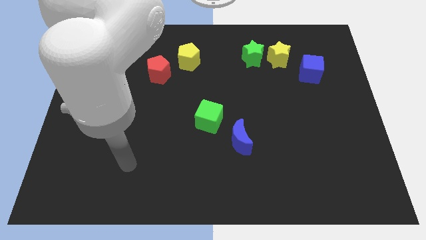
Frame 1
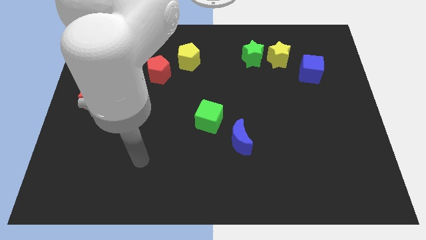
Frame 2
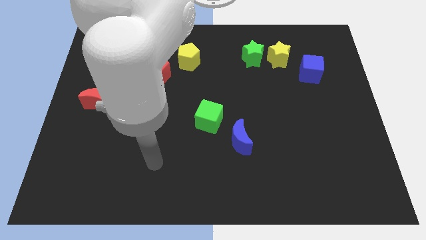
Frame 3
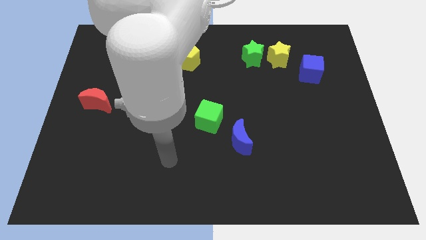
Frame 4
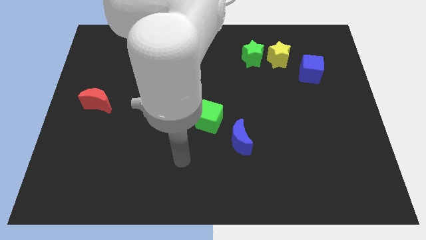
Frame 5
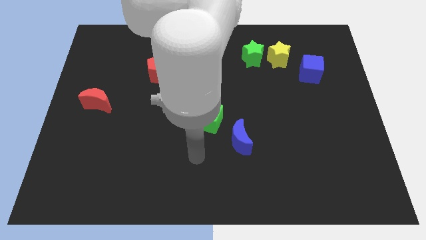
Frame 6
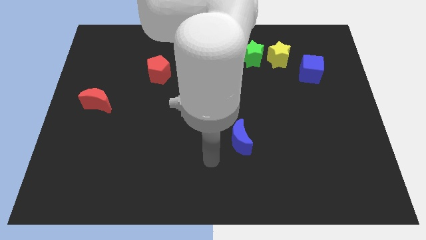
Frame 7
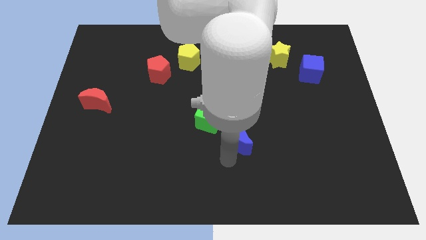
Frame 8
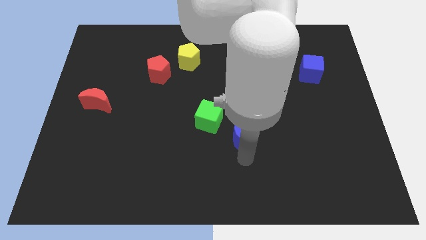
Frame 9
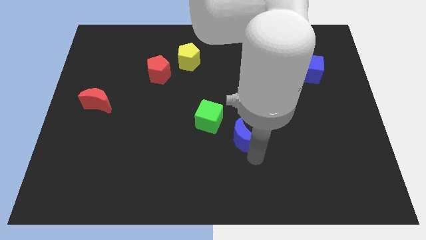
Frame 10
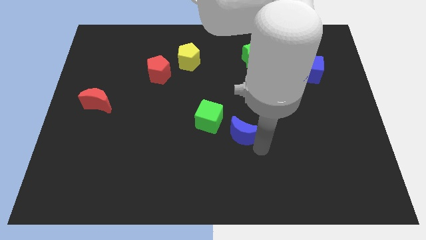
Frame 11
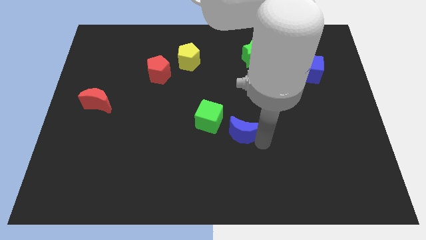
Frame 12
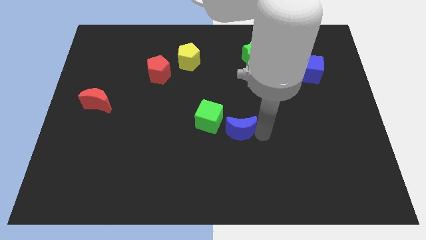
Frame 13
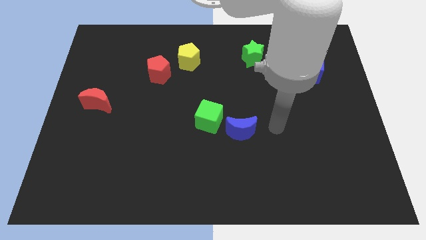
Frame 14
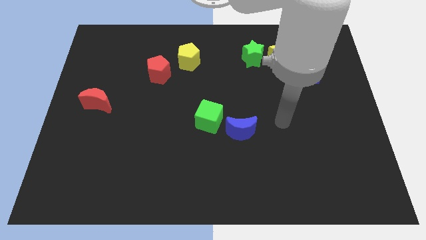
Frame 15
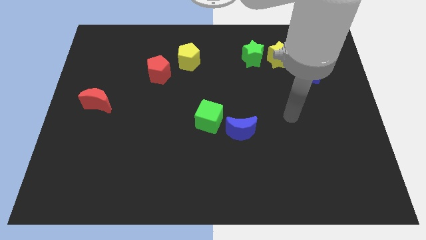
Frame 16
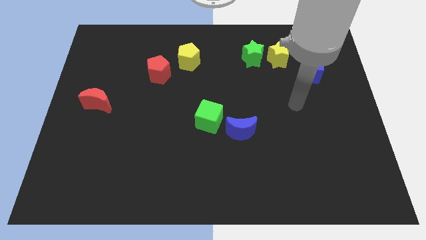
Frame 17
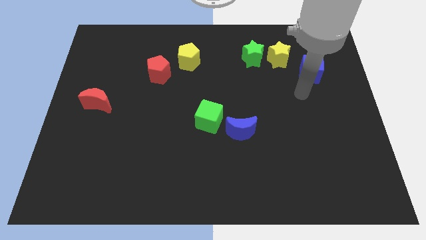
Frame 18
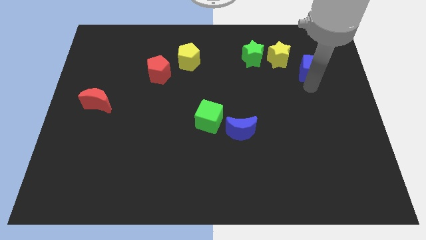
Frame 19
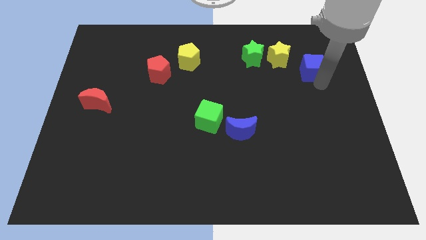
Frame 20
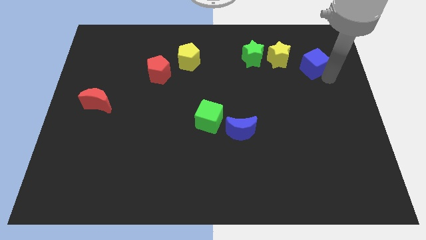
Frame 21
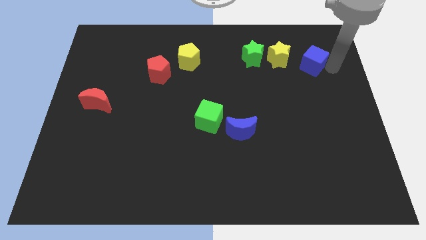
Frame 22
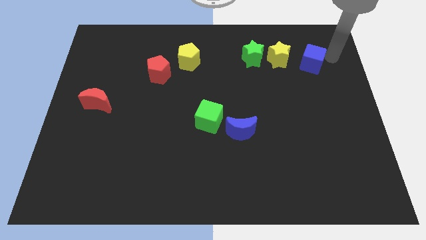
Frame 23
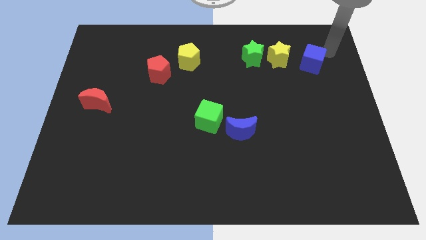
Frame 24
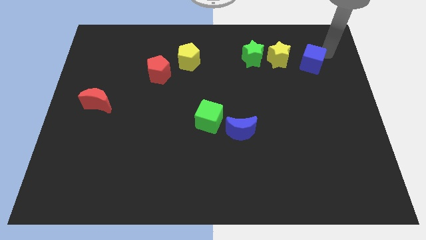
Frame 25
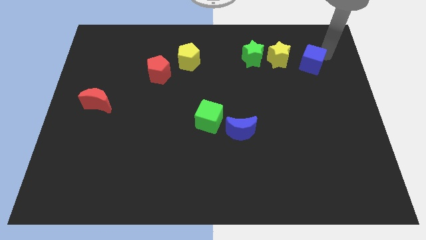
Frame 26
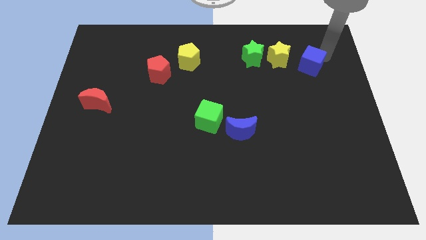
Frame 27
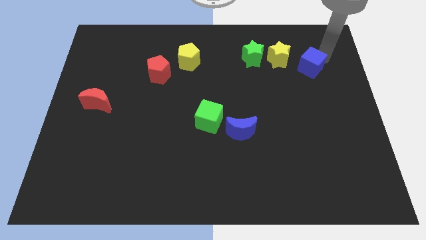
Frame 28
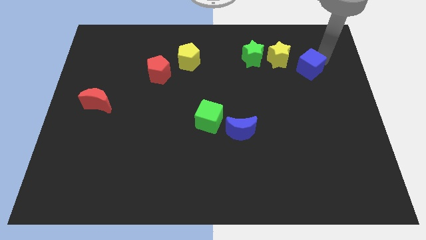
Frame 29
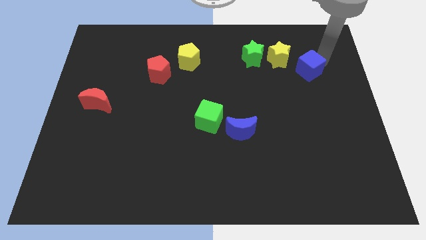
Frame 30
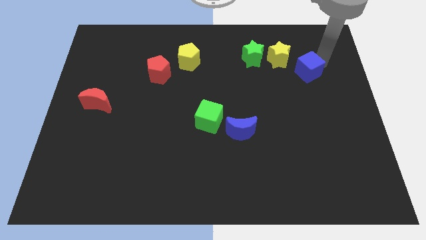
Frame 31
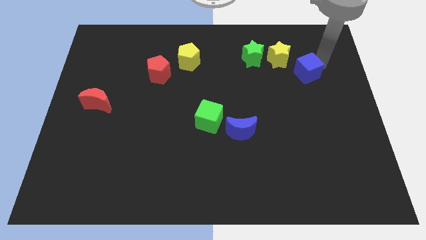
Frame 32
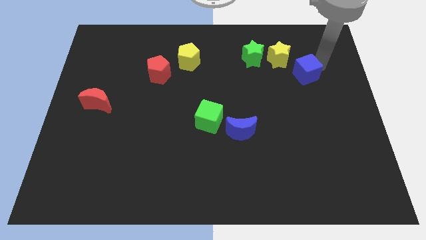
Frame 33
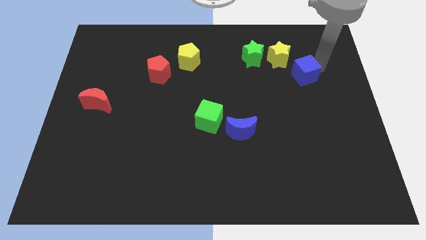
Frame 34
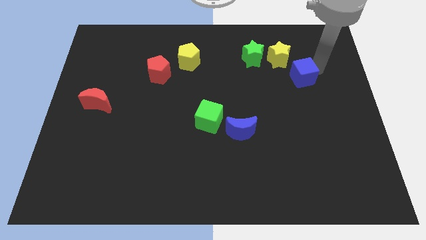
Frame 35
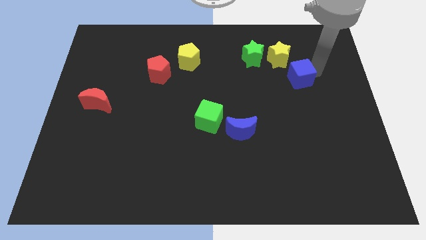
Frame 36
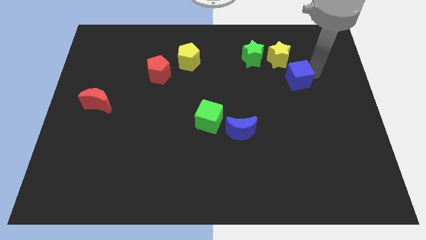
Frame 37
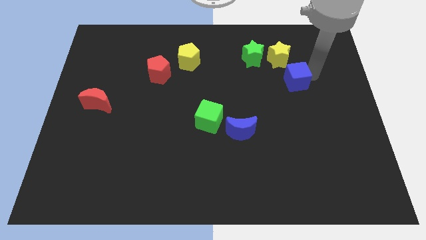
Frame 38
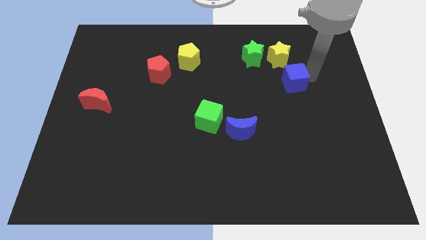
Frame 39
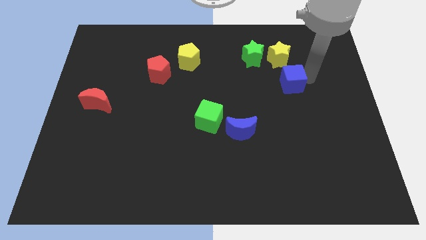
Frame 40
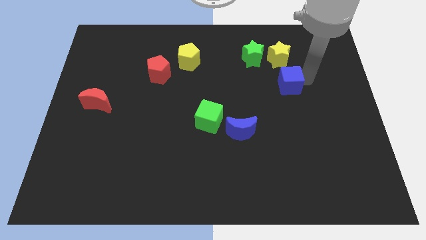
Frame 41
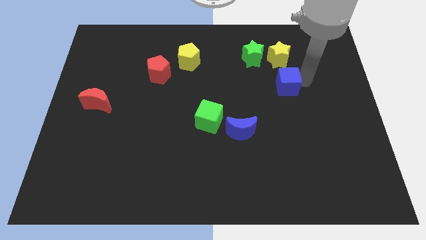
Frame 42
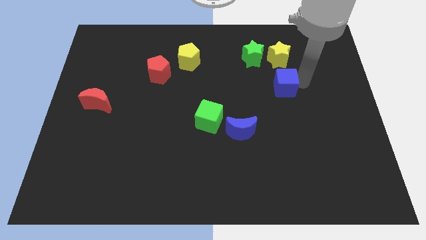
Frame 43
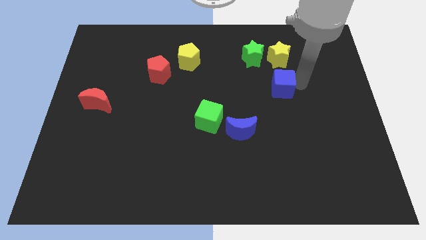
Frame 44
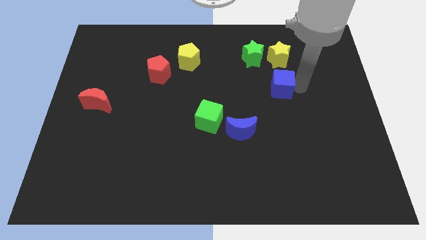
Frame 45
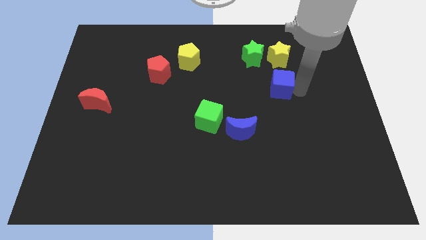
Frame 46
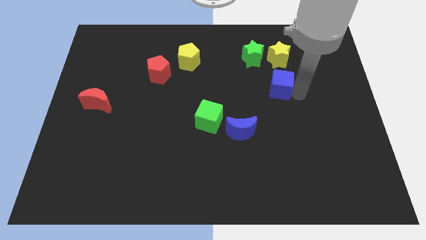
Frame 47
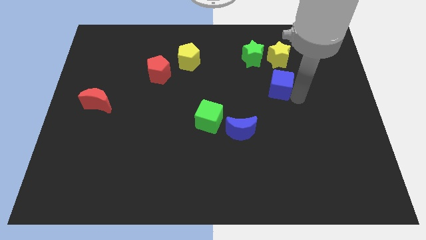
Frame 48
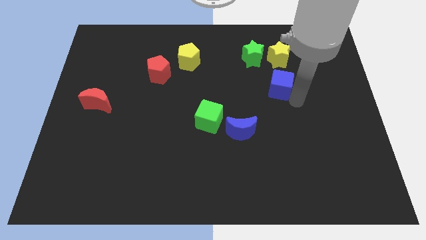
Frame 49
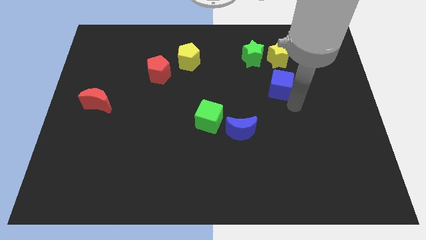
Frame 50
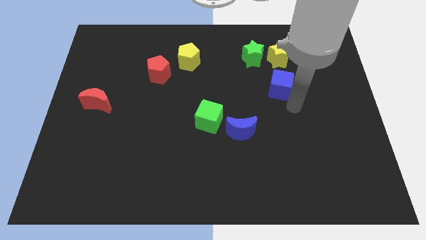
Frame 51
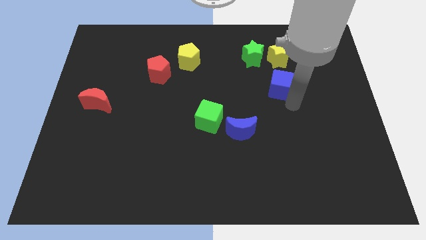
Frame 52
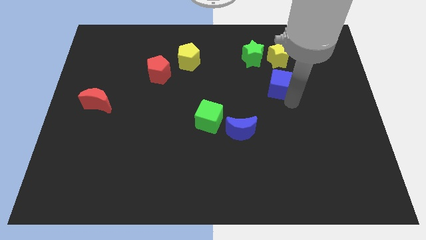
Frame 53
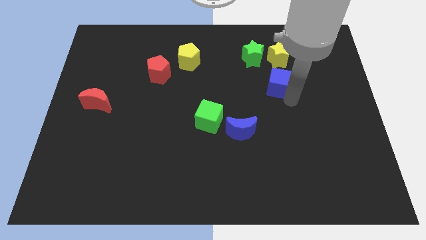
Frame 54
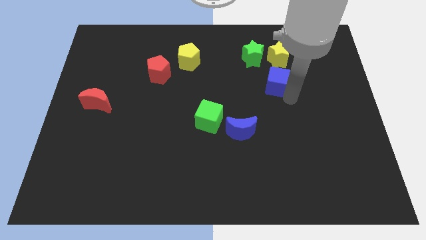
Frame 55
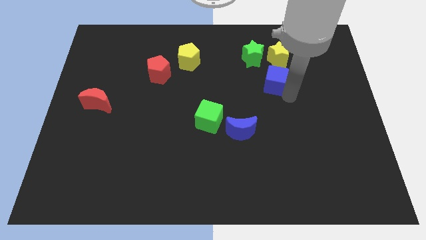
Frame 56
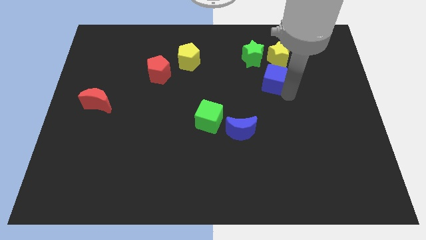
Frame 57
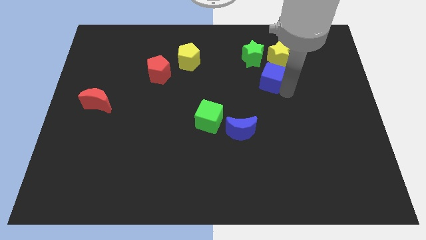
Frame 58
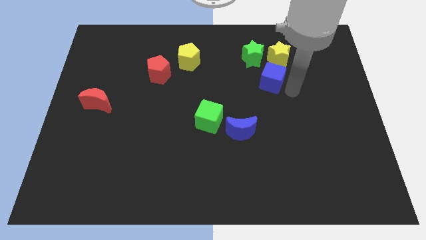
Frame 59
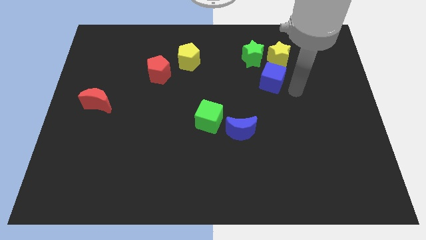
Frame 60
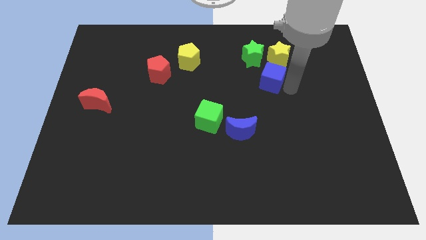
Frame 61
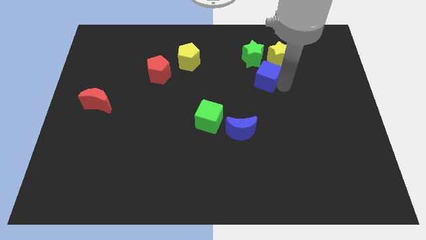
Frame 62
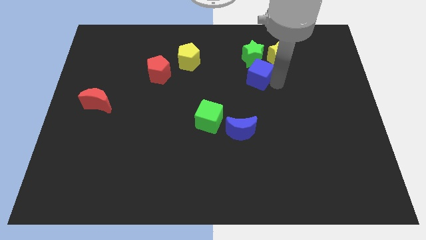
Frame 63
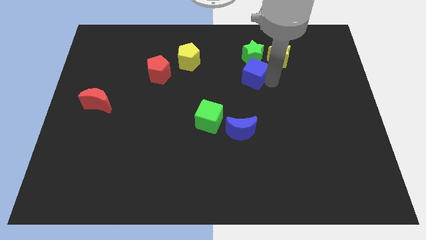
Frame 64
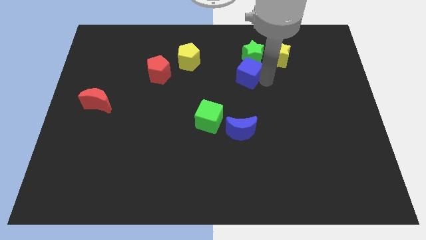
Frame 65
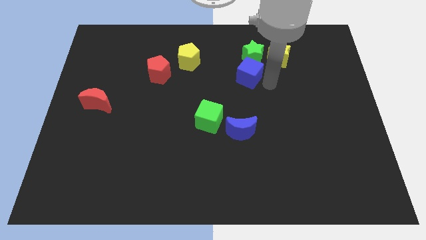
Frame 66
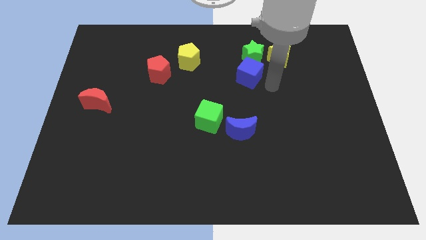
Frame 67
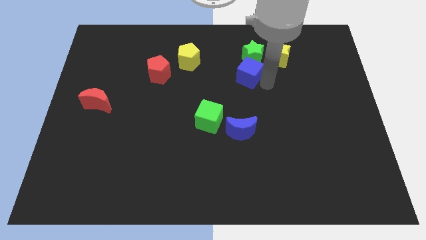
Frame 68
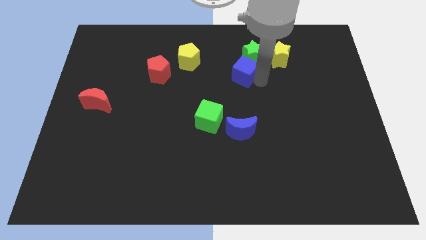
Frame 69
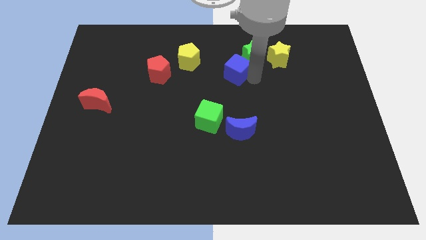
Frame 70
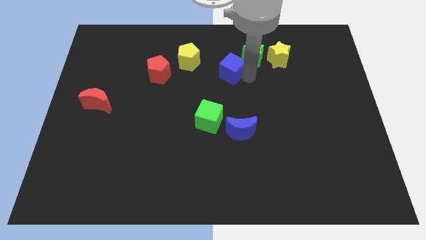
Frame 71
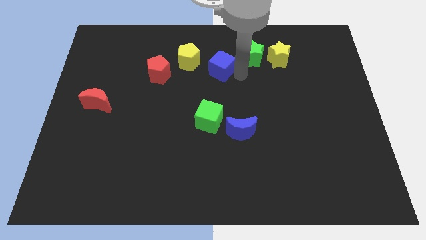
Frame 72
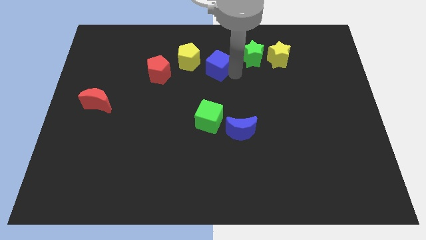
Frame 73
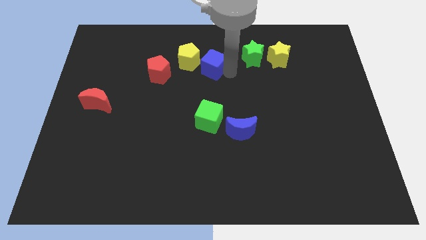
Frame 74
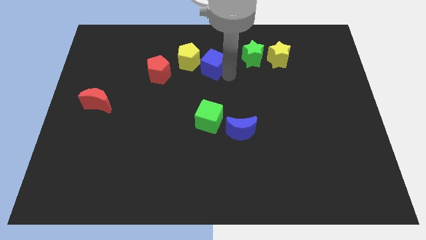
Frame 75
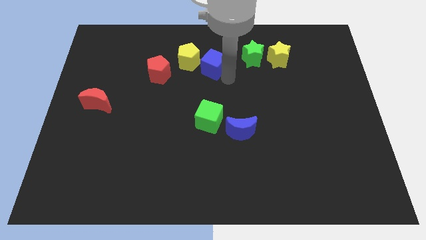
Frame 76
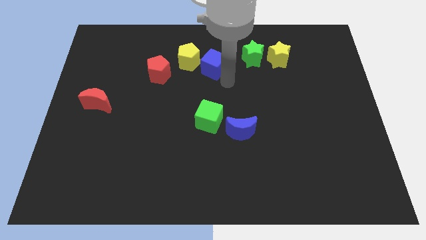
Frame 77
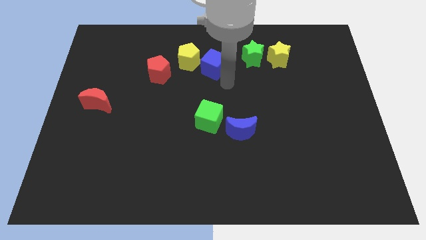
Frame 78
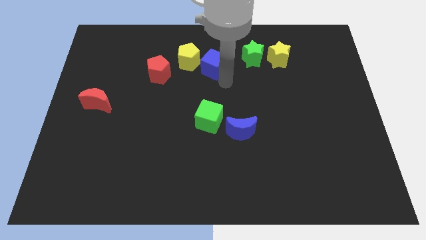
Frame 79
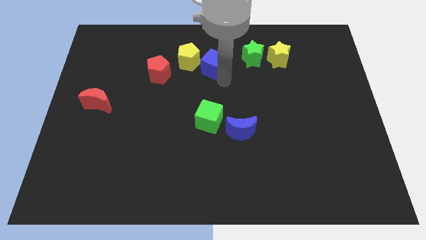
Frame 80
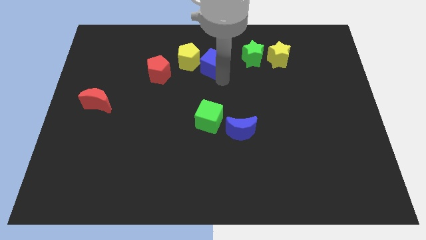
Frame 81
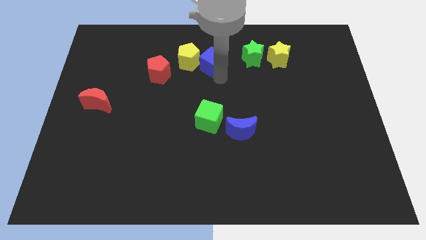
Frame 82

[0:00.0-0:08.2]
slide the blue cube next to the yellow pentagon
